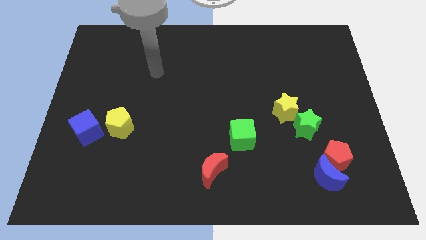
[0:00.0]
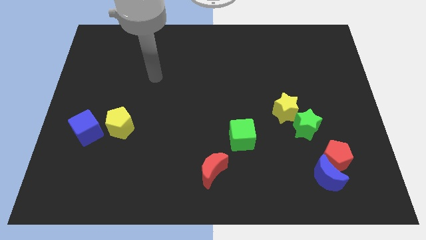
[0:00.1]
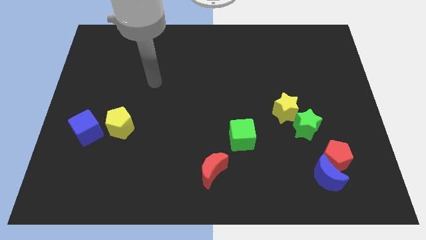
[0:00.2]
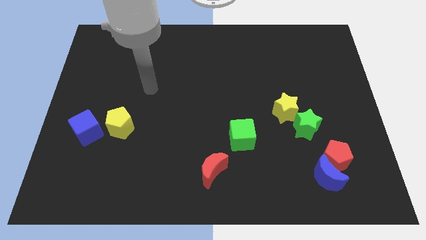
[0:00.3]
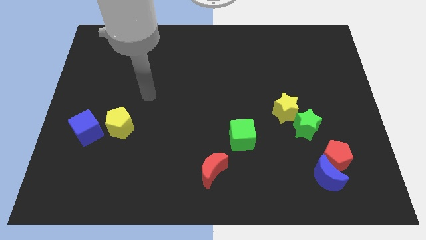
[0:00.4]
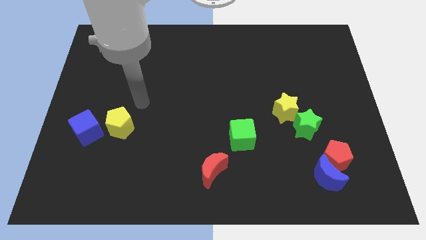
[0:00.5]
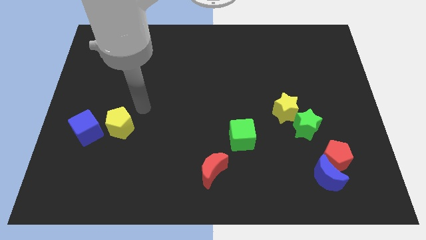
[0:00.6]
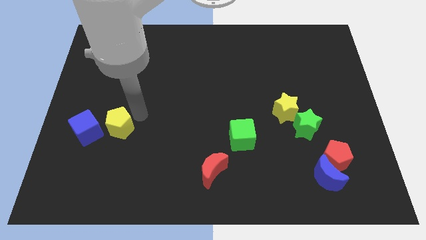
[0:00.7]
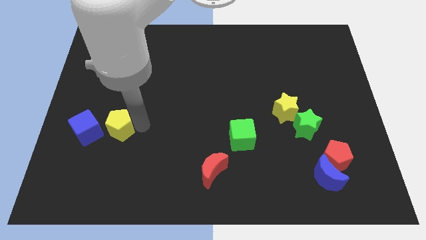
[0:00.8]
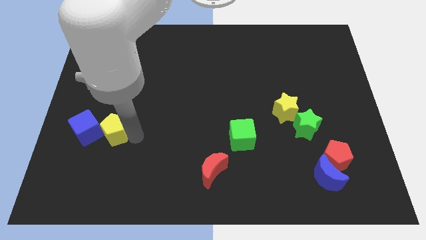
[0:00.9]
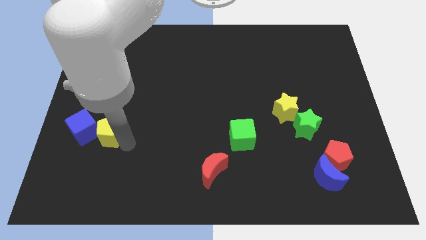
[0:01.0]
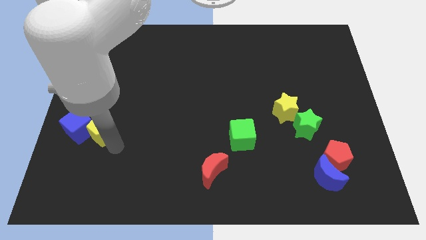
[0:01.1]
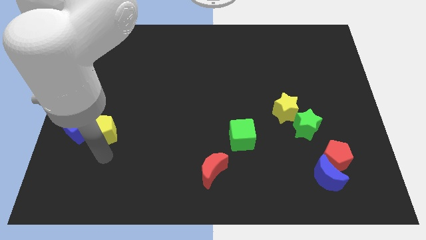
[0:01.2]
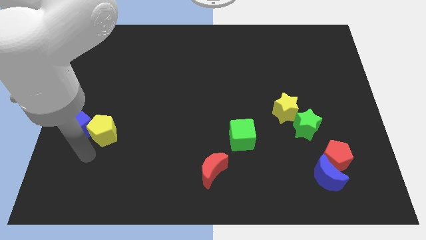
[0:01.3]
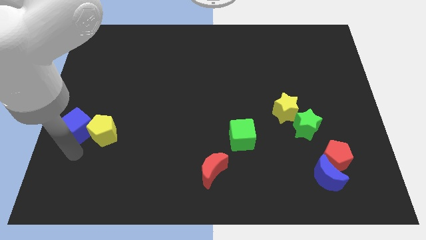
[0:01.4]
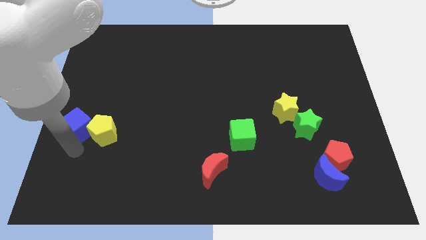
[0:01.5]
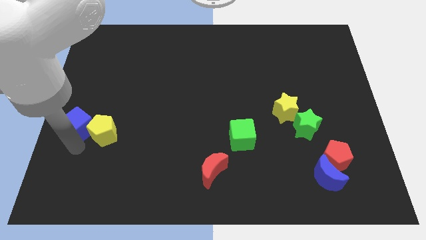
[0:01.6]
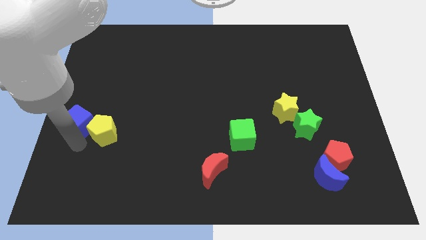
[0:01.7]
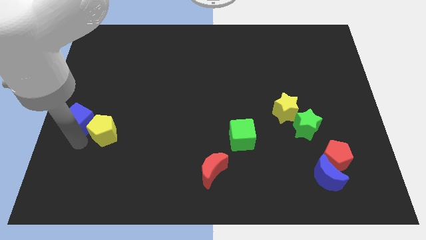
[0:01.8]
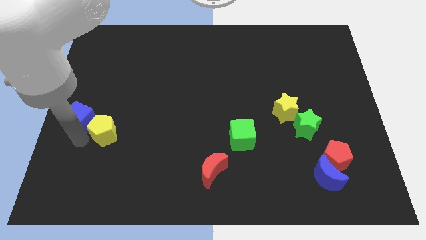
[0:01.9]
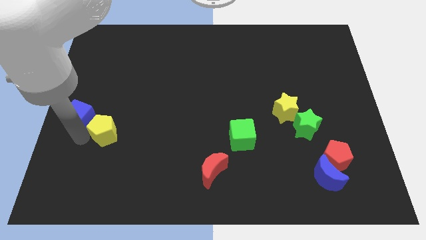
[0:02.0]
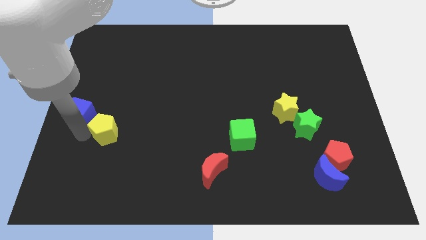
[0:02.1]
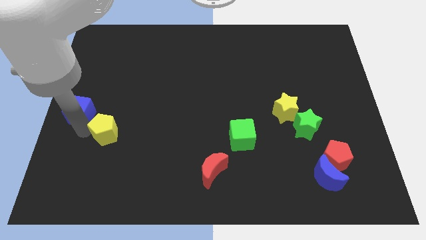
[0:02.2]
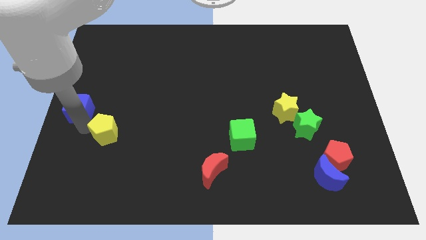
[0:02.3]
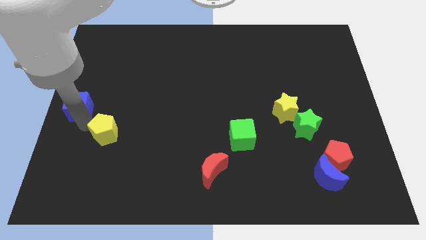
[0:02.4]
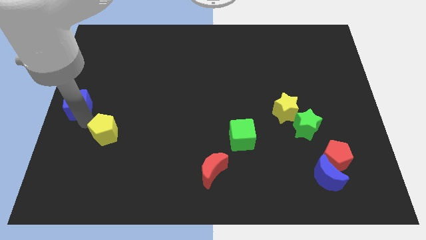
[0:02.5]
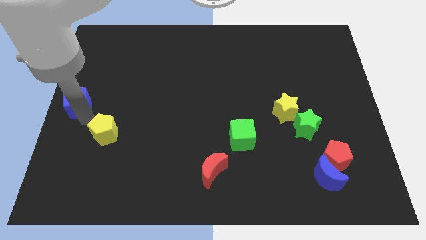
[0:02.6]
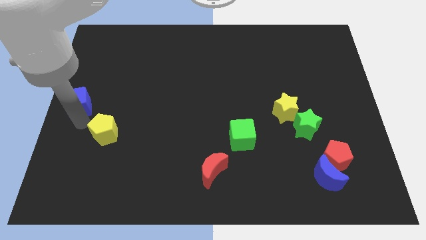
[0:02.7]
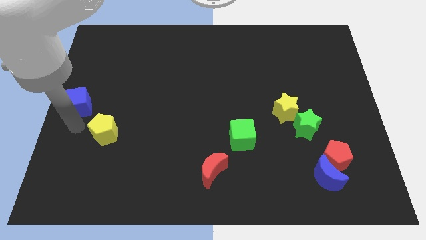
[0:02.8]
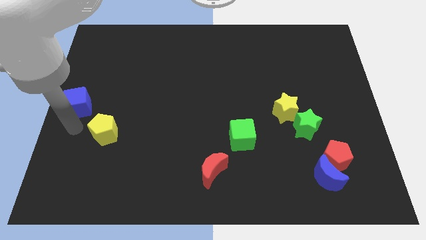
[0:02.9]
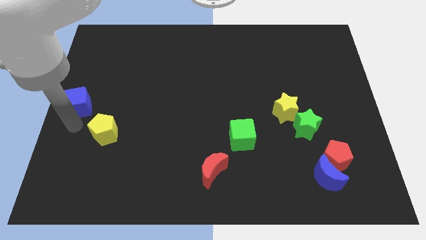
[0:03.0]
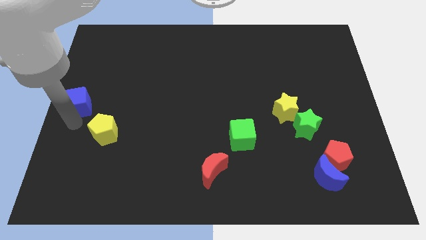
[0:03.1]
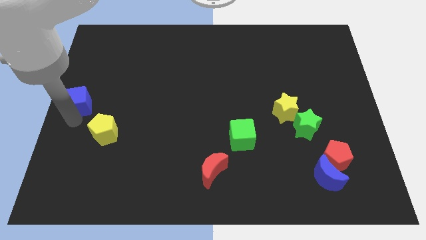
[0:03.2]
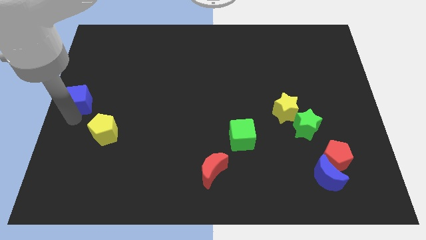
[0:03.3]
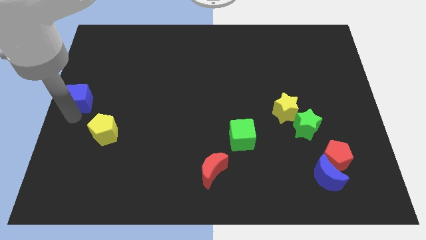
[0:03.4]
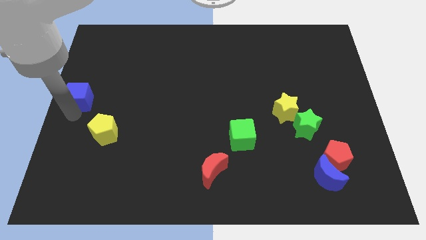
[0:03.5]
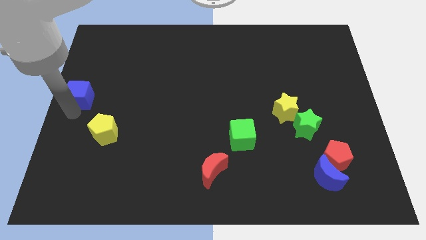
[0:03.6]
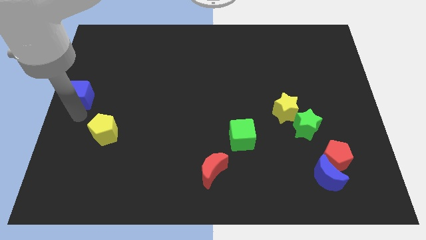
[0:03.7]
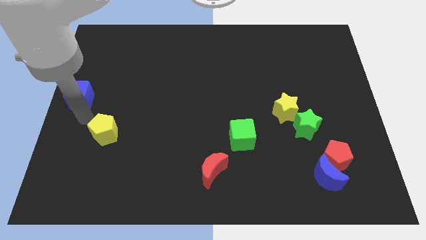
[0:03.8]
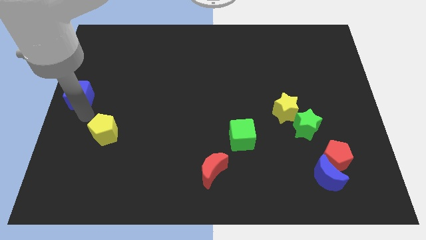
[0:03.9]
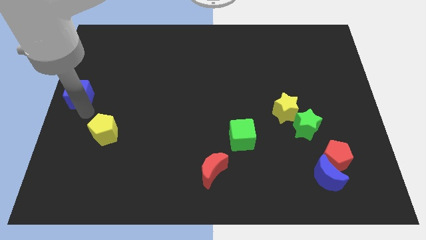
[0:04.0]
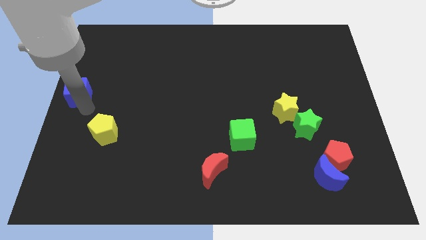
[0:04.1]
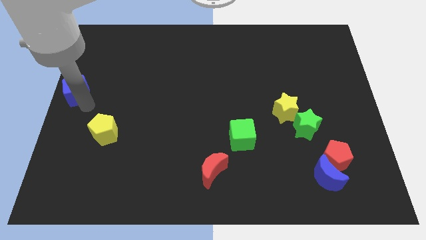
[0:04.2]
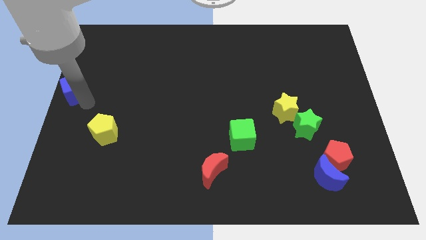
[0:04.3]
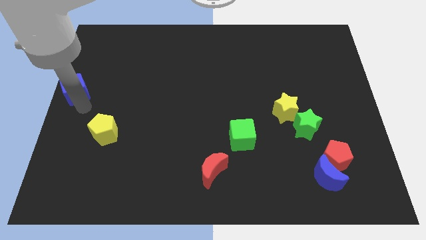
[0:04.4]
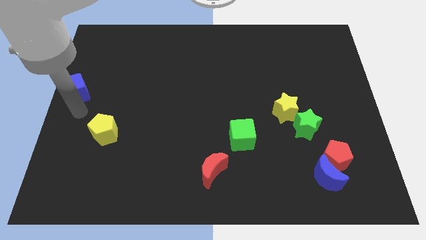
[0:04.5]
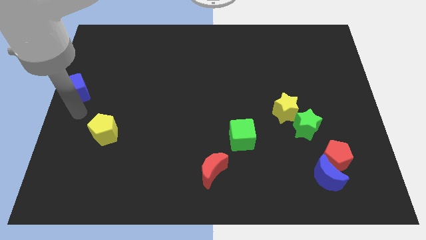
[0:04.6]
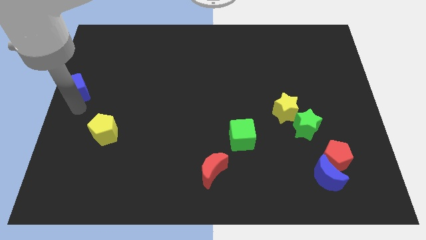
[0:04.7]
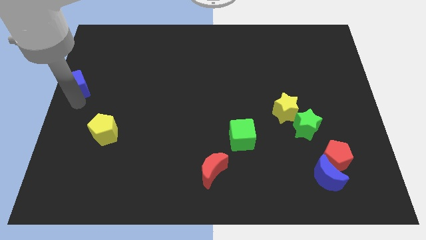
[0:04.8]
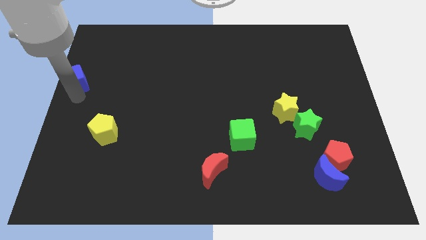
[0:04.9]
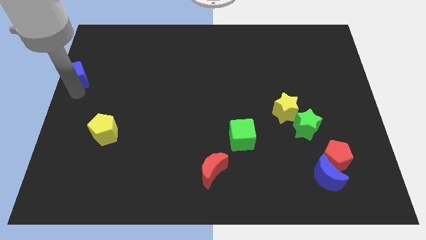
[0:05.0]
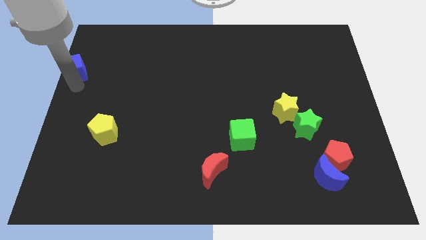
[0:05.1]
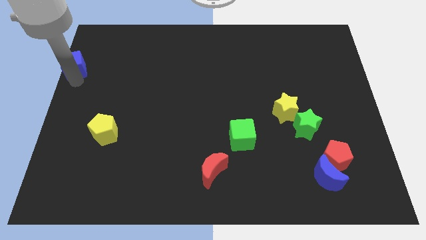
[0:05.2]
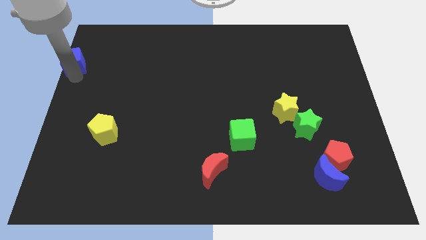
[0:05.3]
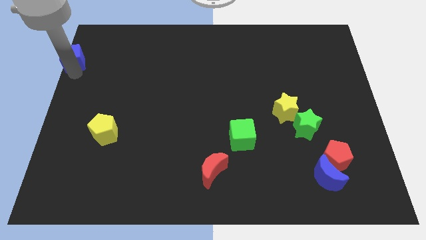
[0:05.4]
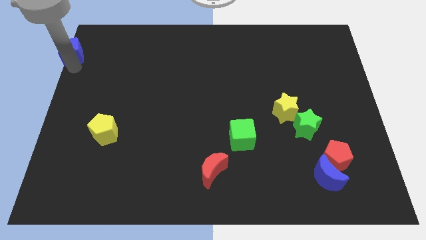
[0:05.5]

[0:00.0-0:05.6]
slide the blue cube to the top left of the board

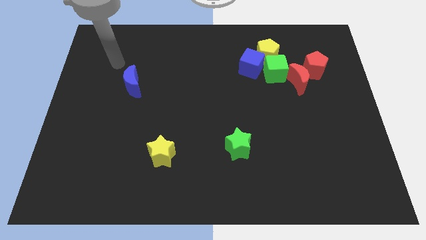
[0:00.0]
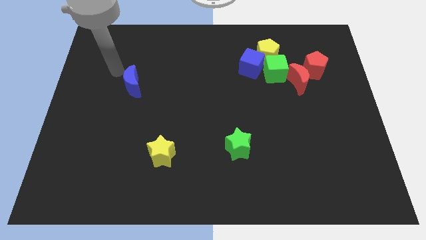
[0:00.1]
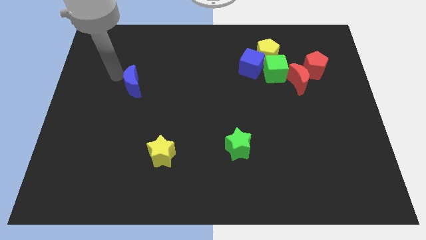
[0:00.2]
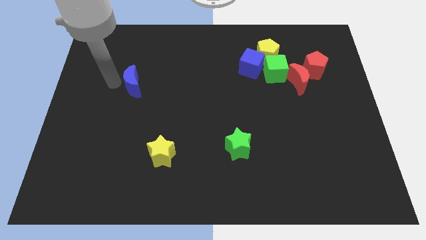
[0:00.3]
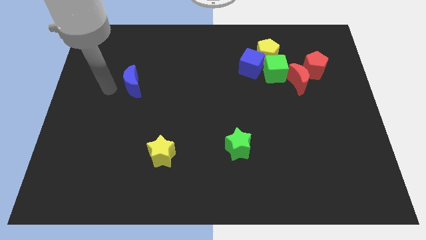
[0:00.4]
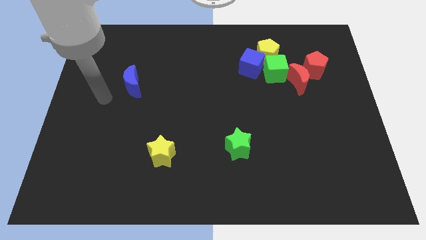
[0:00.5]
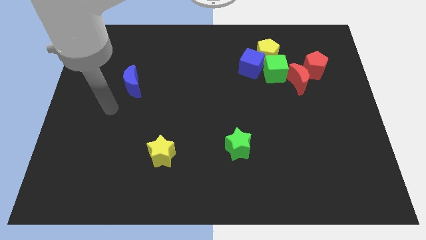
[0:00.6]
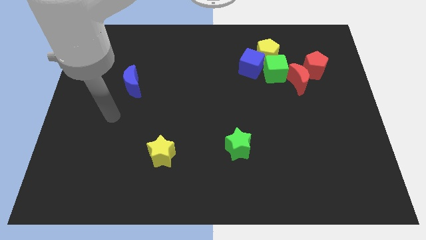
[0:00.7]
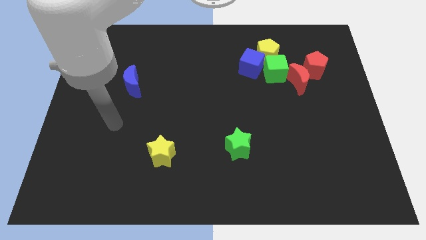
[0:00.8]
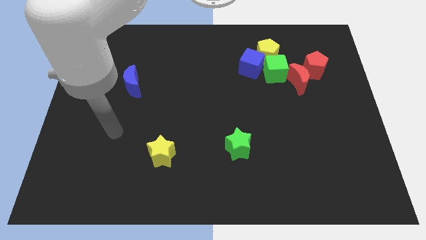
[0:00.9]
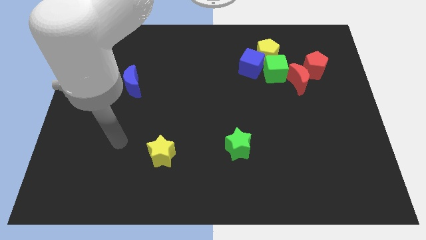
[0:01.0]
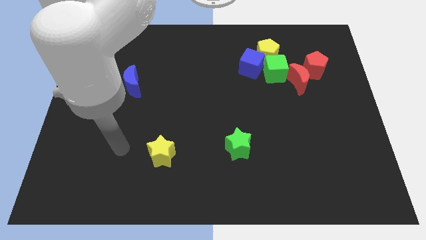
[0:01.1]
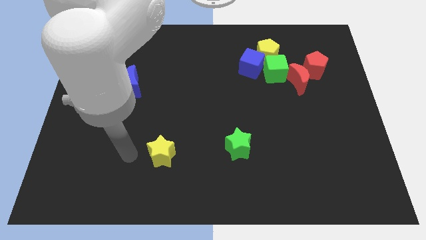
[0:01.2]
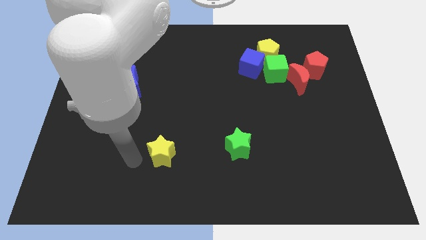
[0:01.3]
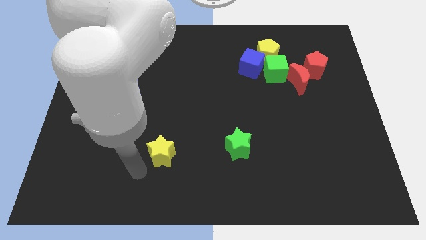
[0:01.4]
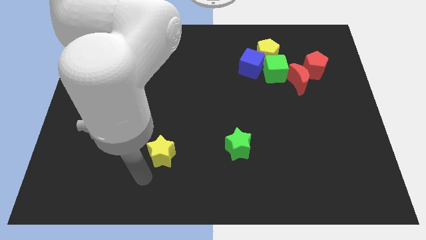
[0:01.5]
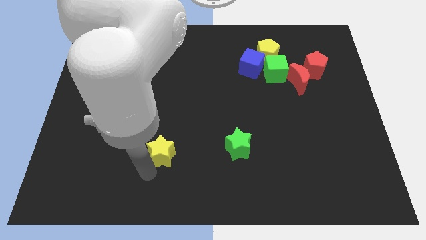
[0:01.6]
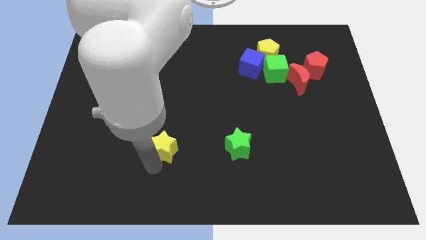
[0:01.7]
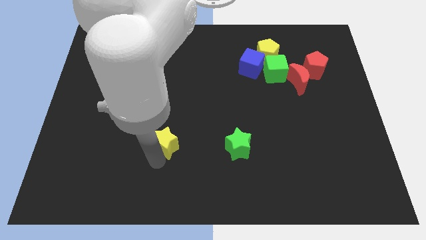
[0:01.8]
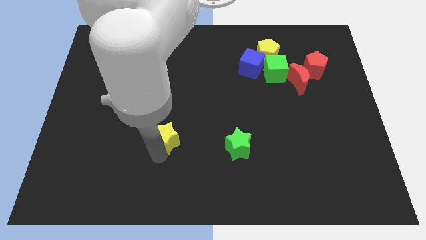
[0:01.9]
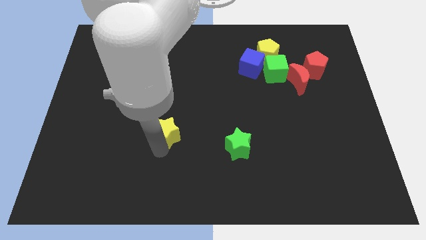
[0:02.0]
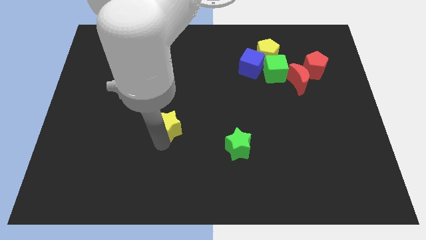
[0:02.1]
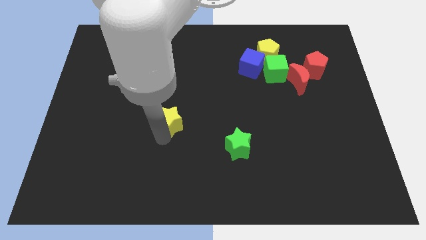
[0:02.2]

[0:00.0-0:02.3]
slide the yellow star to the middle
